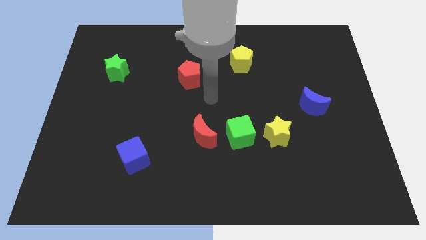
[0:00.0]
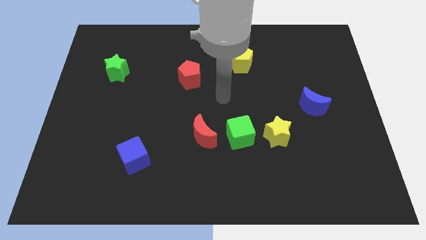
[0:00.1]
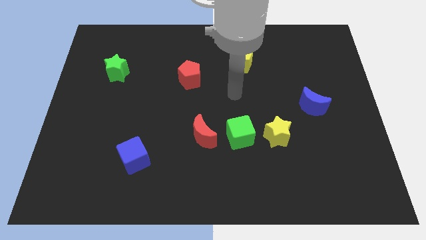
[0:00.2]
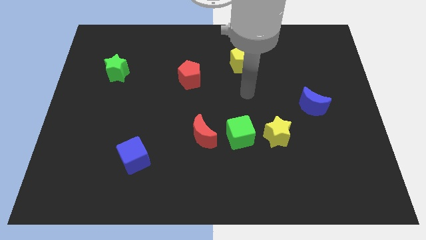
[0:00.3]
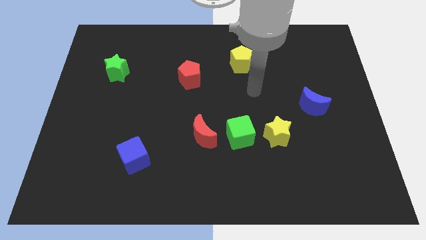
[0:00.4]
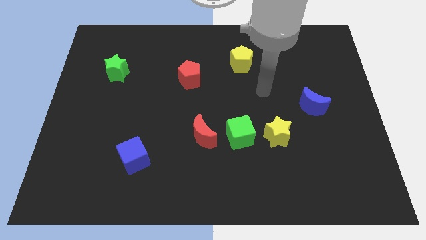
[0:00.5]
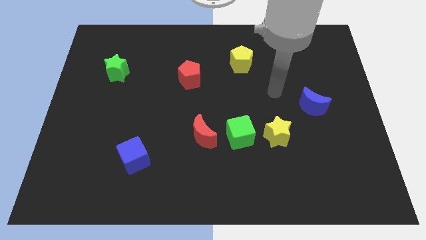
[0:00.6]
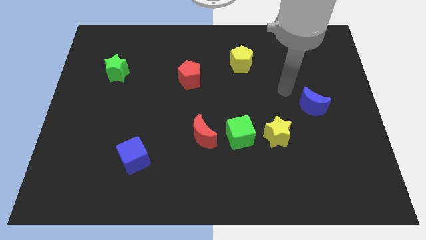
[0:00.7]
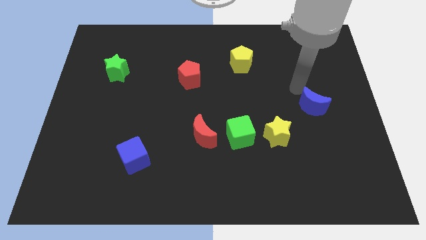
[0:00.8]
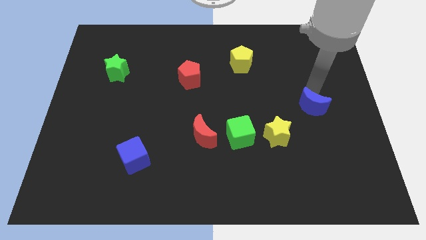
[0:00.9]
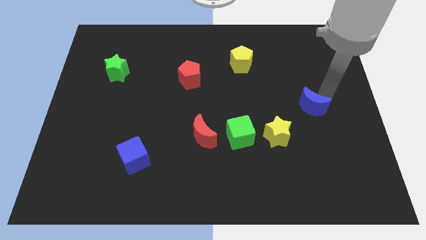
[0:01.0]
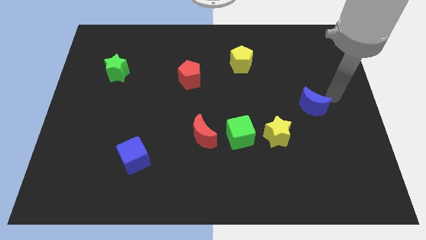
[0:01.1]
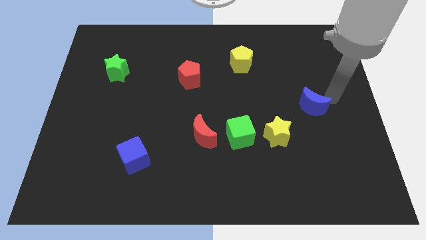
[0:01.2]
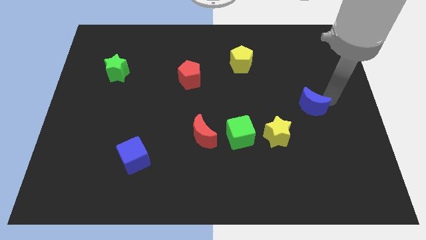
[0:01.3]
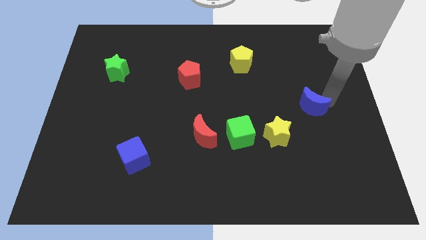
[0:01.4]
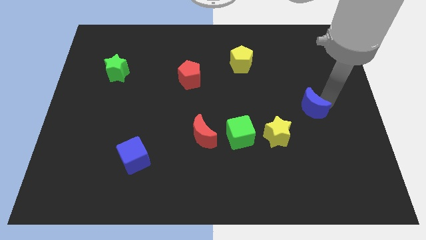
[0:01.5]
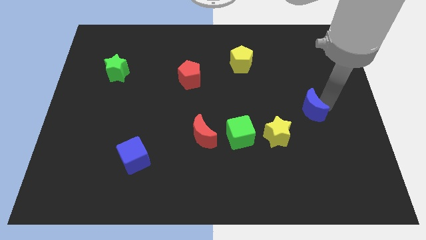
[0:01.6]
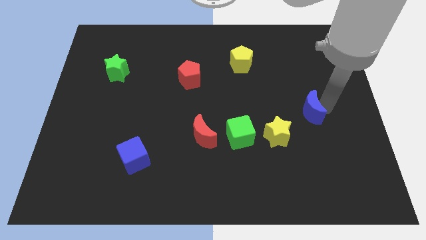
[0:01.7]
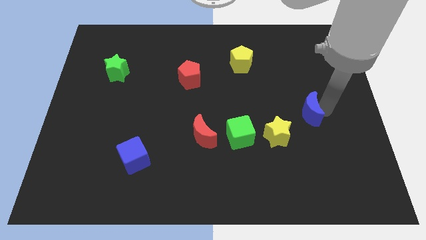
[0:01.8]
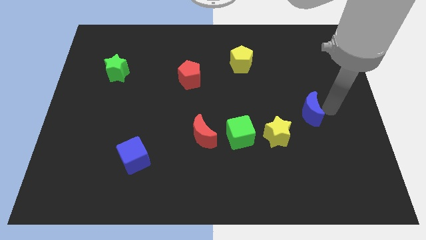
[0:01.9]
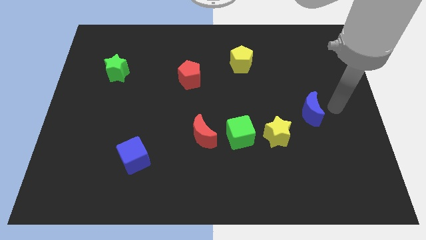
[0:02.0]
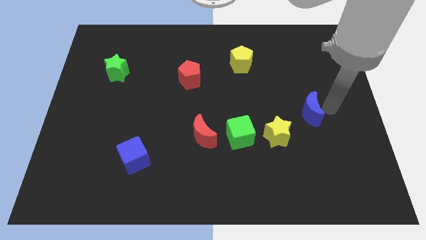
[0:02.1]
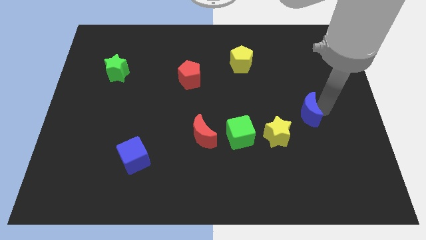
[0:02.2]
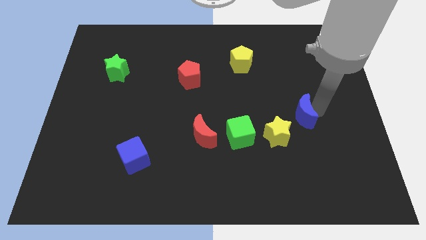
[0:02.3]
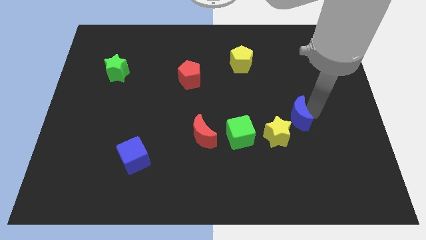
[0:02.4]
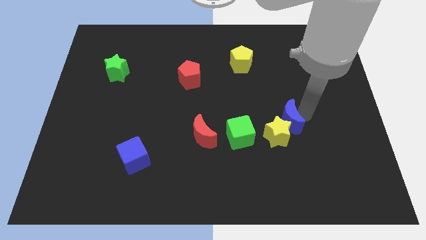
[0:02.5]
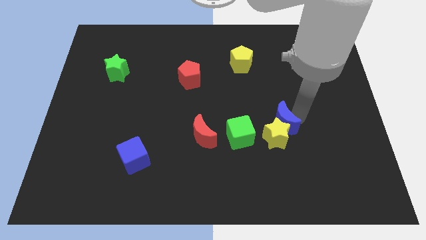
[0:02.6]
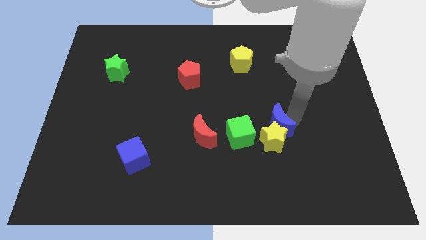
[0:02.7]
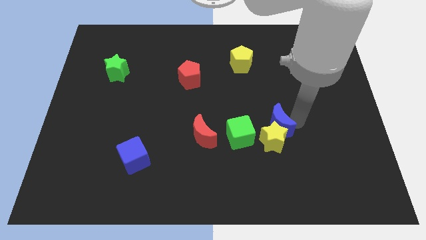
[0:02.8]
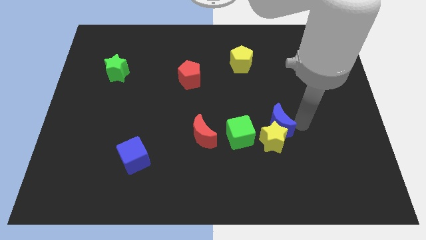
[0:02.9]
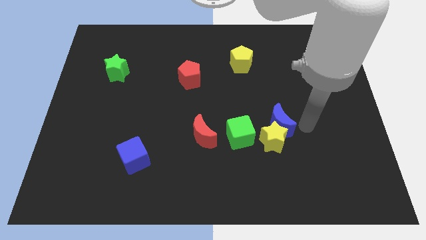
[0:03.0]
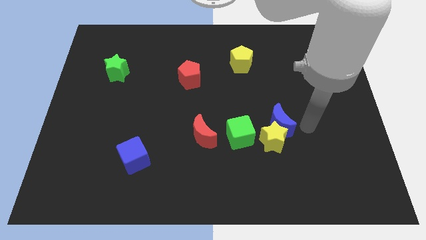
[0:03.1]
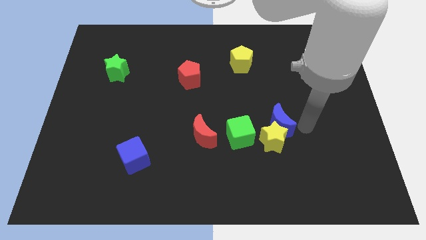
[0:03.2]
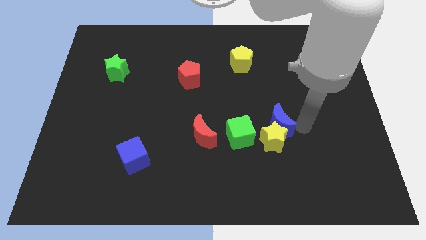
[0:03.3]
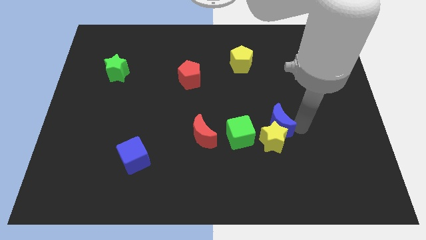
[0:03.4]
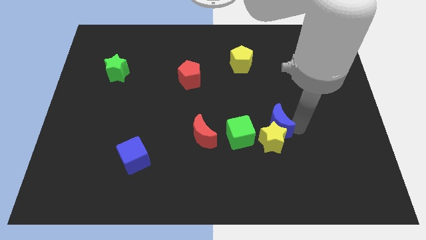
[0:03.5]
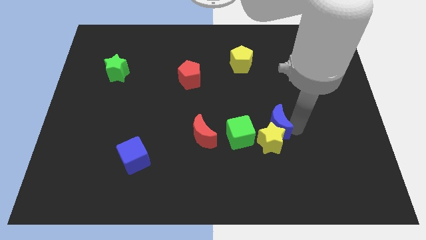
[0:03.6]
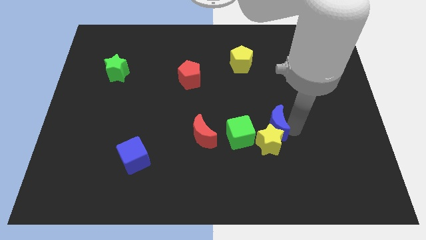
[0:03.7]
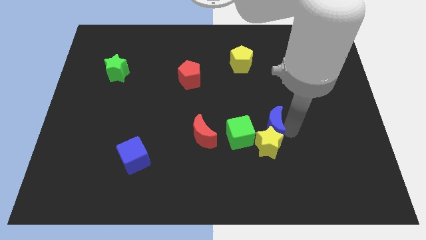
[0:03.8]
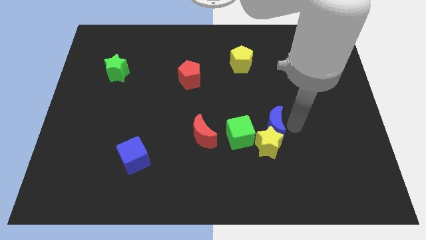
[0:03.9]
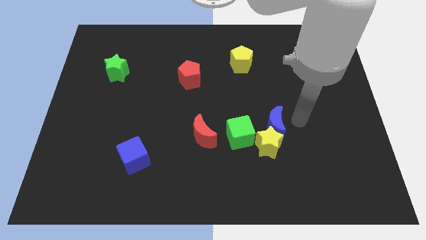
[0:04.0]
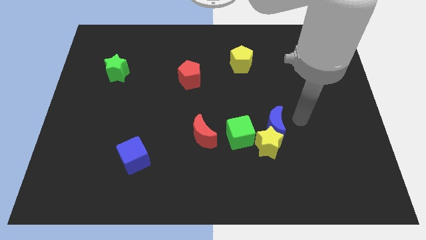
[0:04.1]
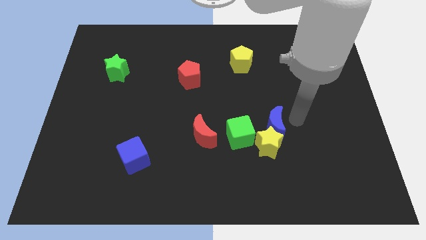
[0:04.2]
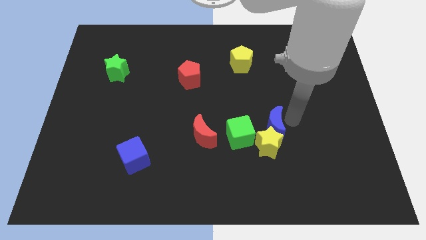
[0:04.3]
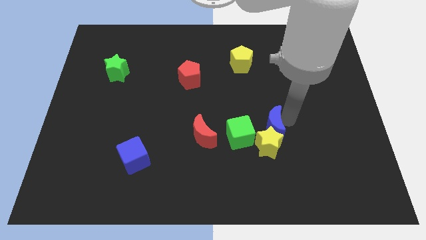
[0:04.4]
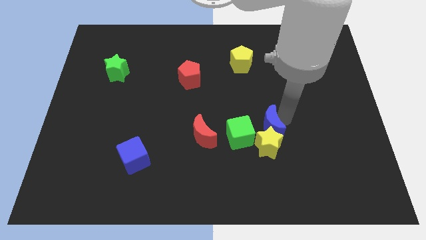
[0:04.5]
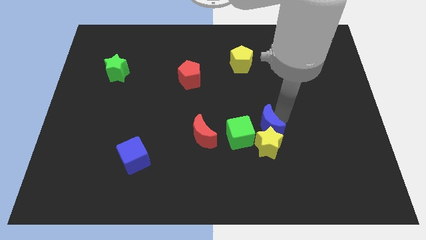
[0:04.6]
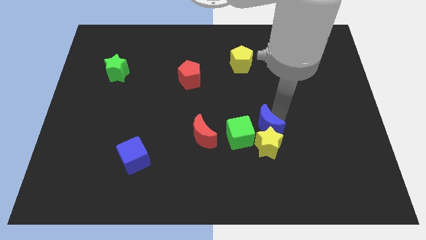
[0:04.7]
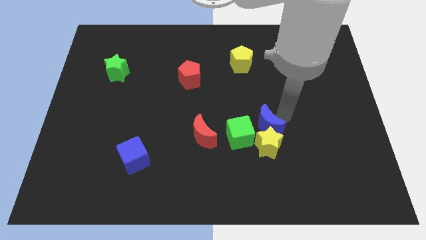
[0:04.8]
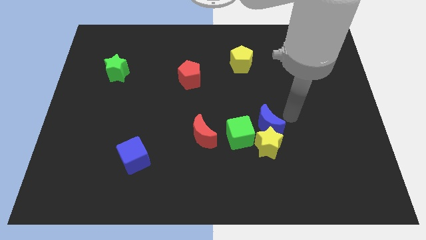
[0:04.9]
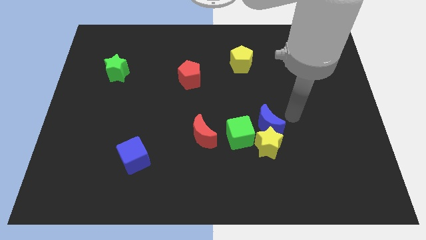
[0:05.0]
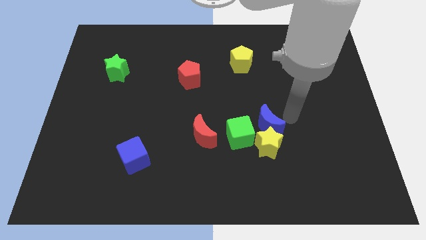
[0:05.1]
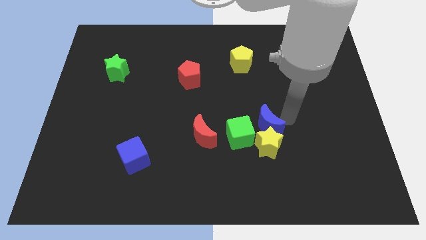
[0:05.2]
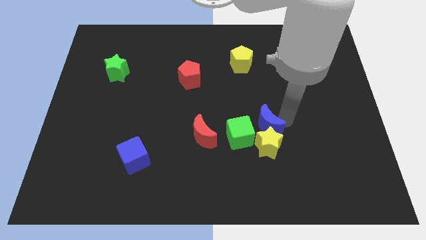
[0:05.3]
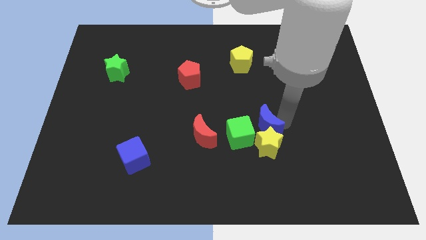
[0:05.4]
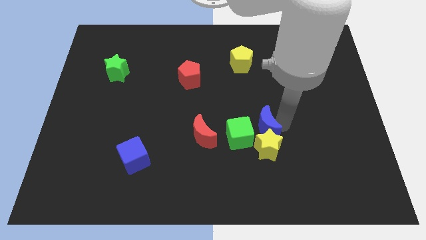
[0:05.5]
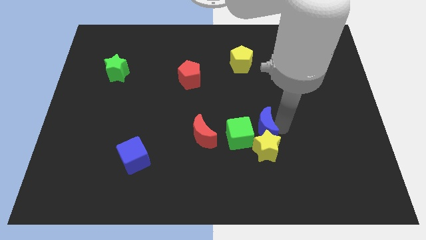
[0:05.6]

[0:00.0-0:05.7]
slide the blue moon next to the green cube

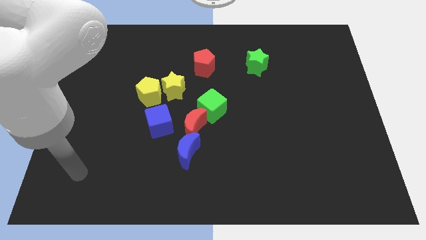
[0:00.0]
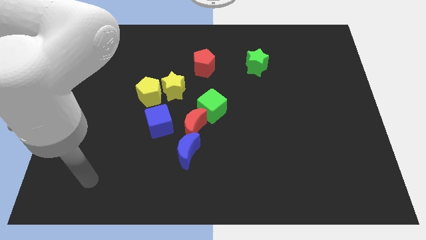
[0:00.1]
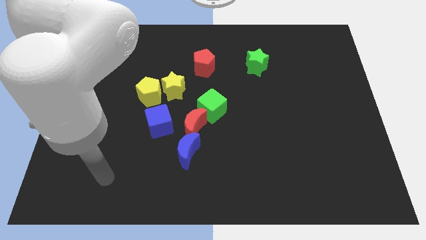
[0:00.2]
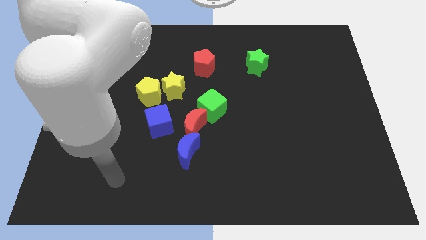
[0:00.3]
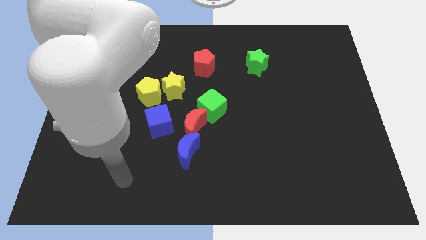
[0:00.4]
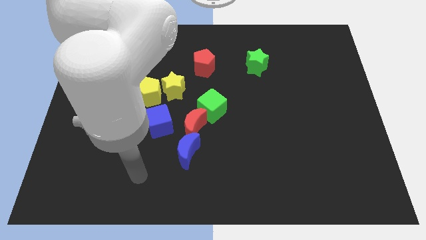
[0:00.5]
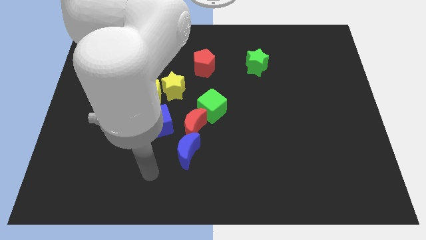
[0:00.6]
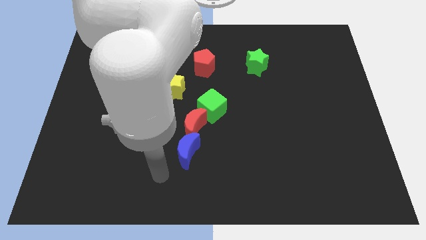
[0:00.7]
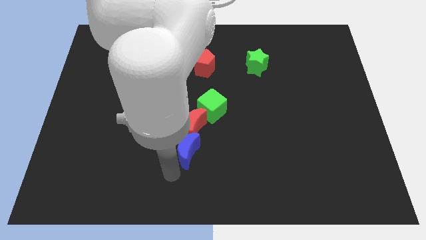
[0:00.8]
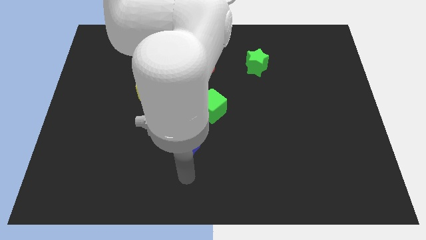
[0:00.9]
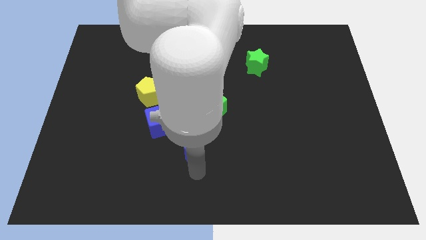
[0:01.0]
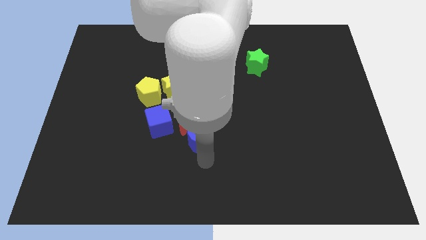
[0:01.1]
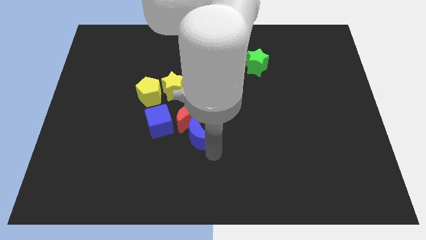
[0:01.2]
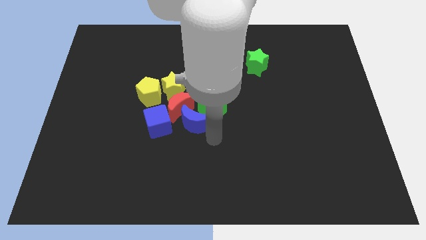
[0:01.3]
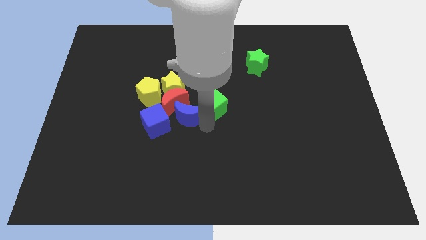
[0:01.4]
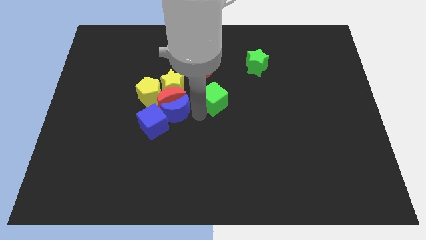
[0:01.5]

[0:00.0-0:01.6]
slide the red moon towards the yellow pentagon
